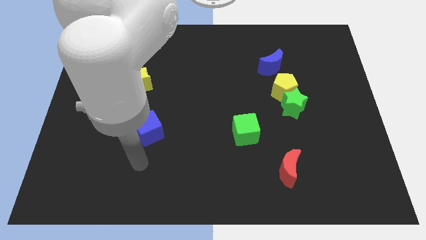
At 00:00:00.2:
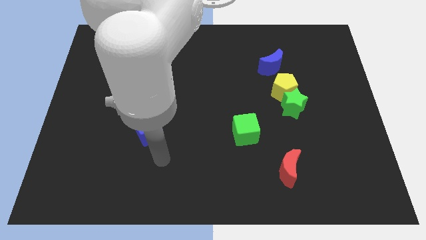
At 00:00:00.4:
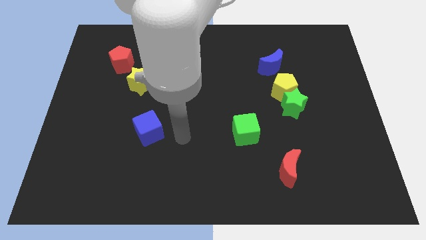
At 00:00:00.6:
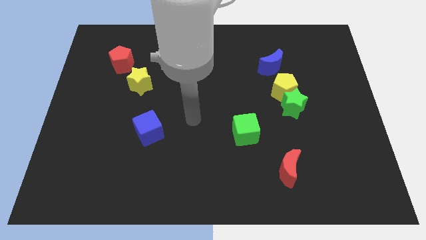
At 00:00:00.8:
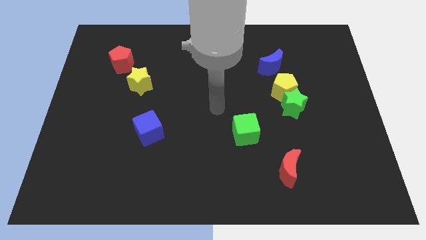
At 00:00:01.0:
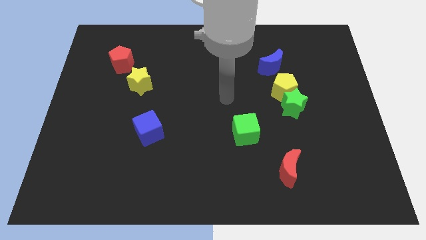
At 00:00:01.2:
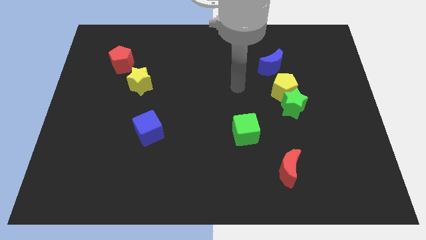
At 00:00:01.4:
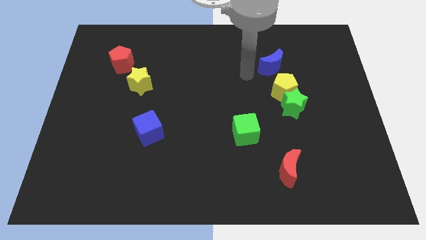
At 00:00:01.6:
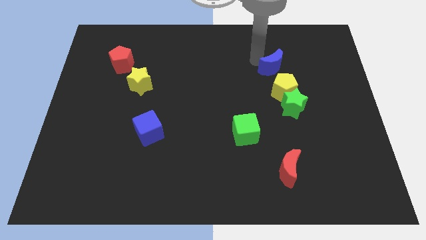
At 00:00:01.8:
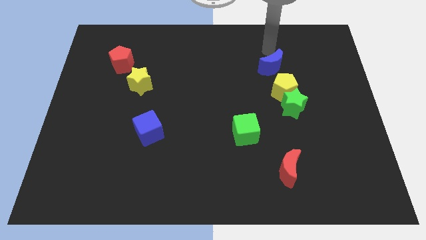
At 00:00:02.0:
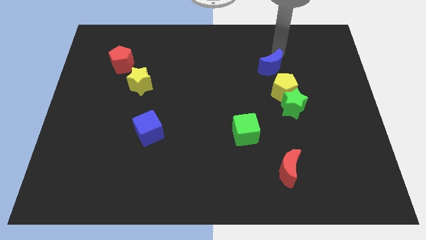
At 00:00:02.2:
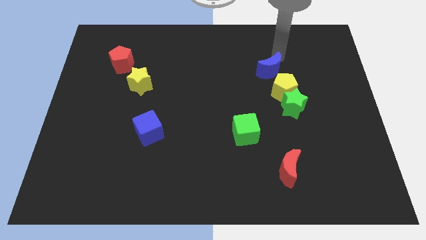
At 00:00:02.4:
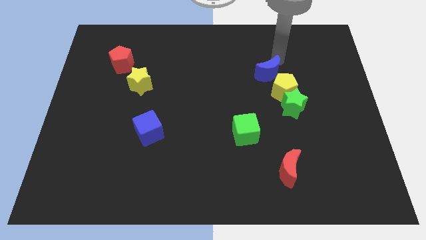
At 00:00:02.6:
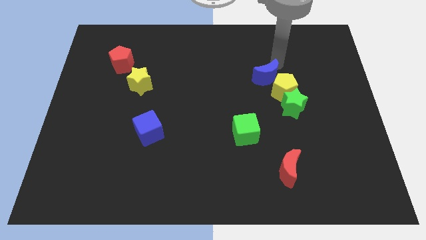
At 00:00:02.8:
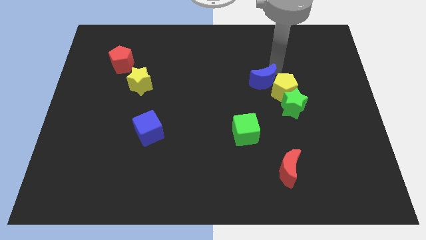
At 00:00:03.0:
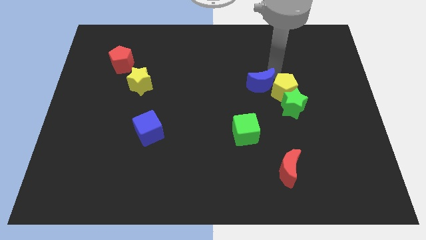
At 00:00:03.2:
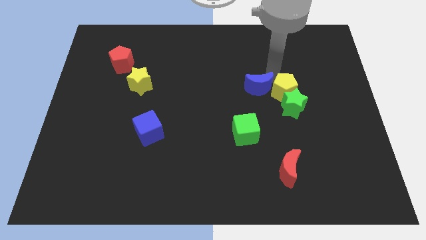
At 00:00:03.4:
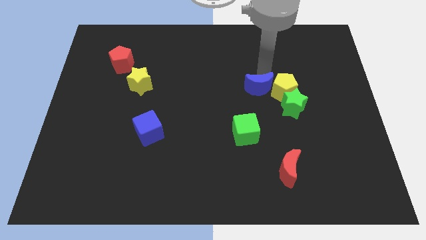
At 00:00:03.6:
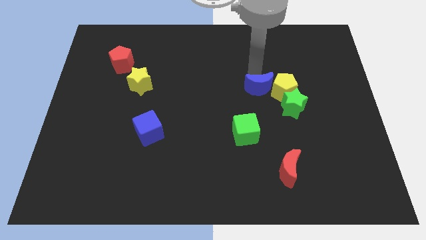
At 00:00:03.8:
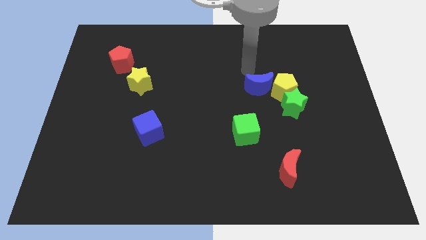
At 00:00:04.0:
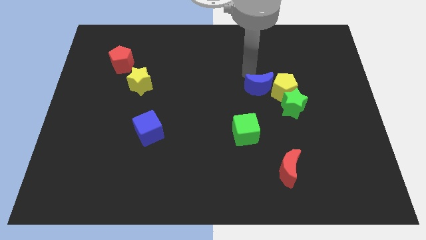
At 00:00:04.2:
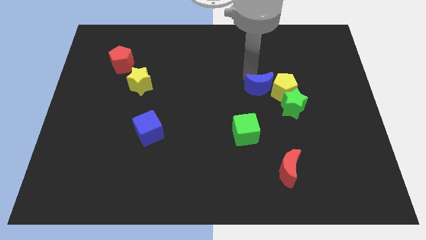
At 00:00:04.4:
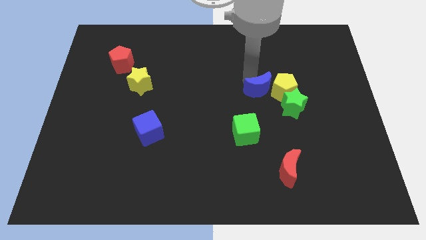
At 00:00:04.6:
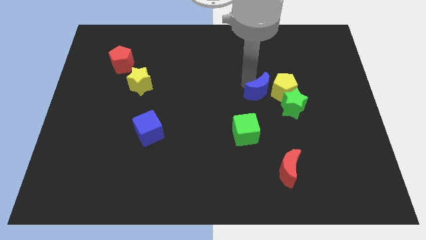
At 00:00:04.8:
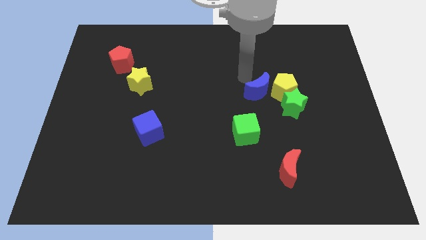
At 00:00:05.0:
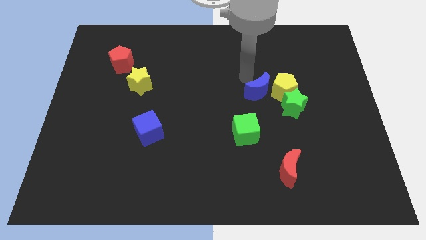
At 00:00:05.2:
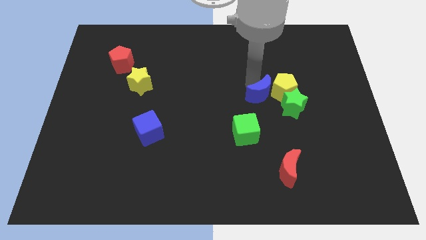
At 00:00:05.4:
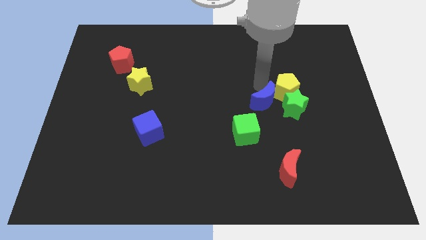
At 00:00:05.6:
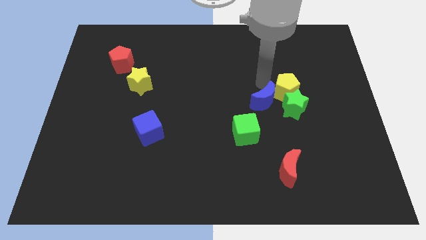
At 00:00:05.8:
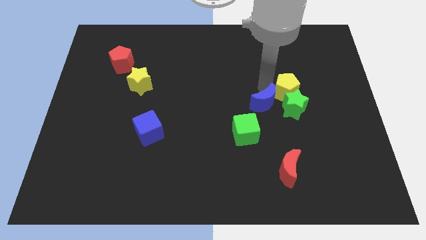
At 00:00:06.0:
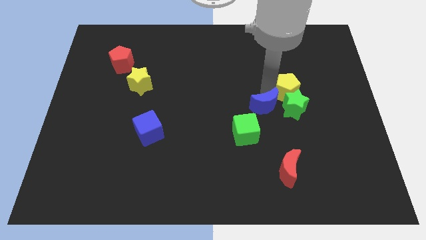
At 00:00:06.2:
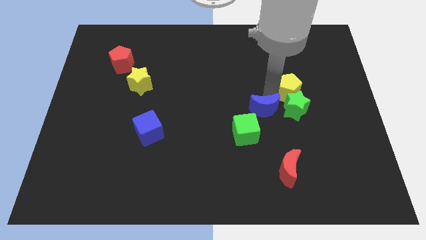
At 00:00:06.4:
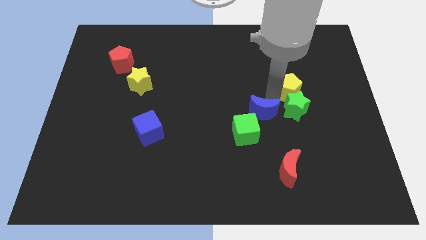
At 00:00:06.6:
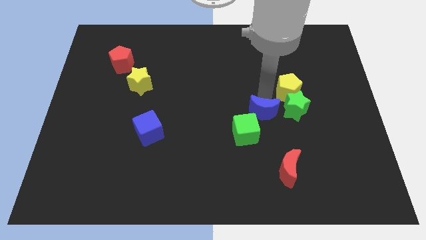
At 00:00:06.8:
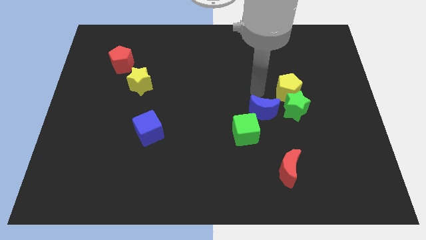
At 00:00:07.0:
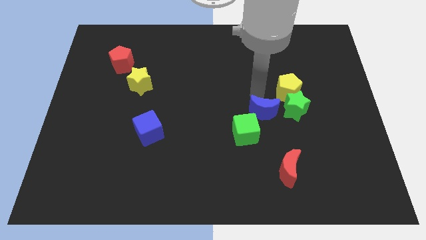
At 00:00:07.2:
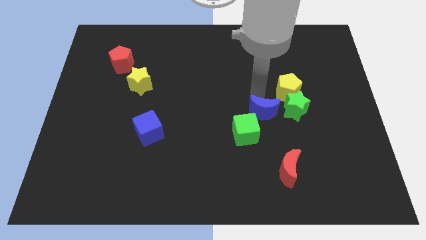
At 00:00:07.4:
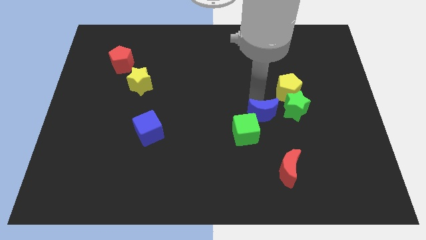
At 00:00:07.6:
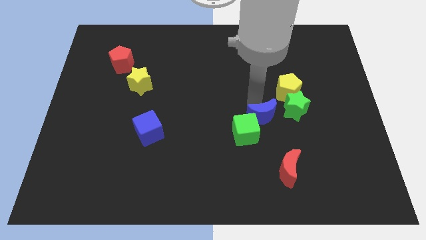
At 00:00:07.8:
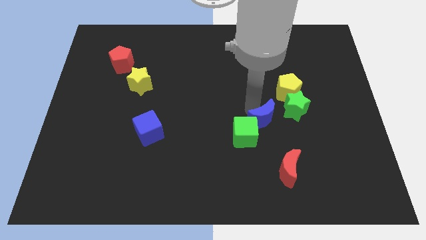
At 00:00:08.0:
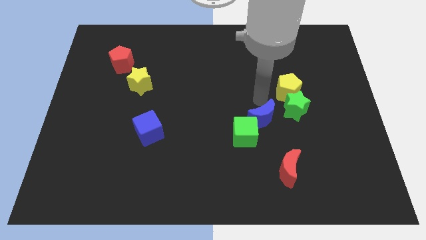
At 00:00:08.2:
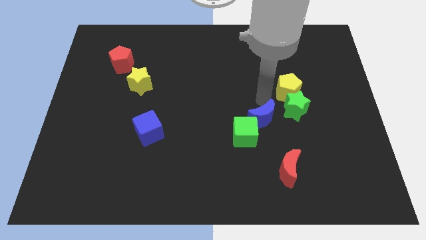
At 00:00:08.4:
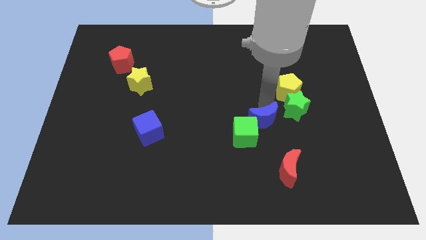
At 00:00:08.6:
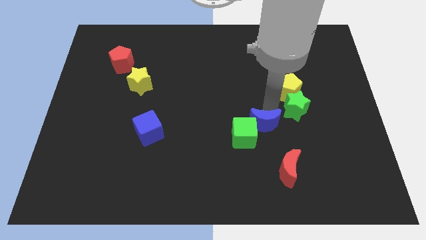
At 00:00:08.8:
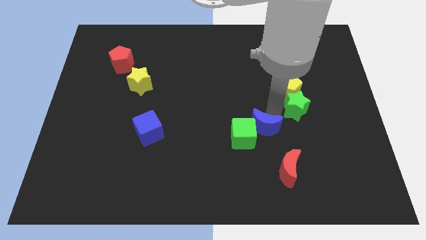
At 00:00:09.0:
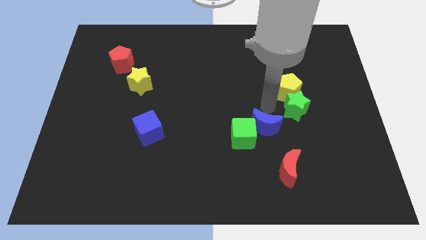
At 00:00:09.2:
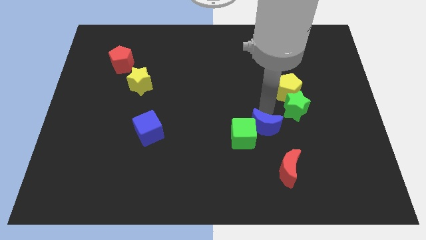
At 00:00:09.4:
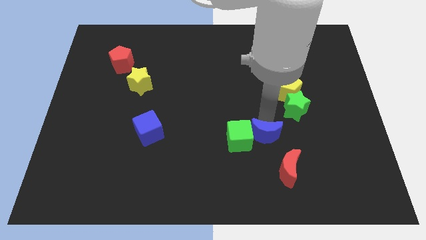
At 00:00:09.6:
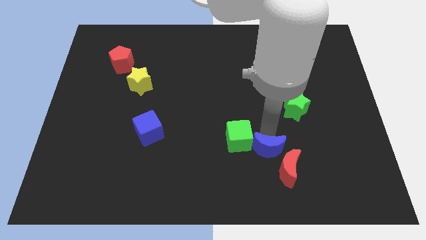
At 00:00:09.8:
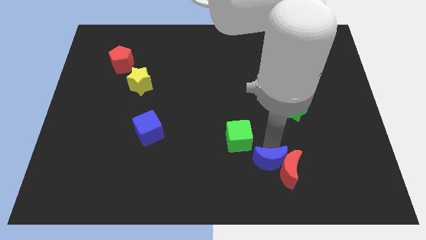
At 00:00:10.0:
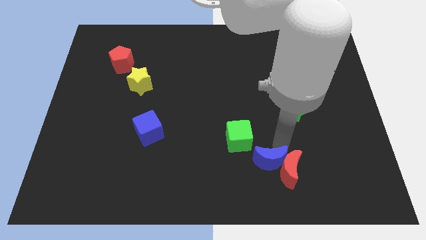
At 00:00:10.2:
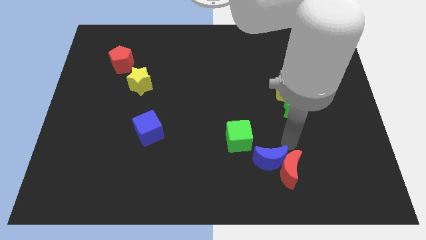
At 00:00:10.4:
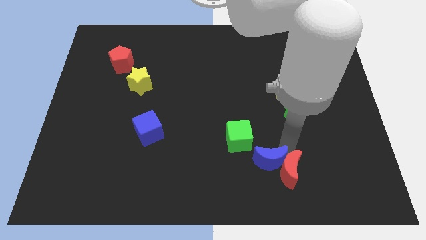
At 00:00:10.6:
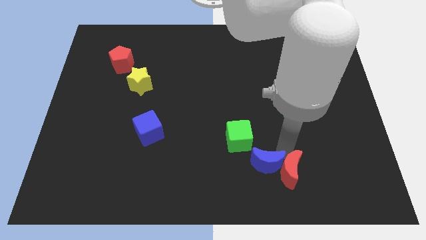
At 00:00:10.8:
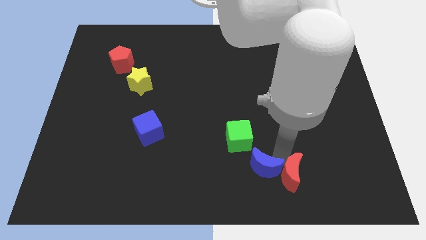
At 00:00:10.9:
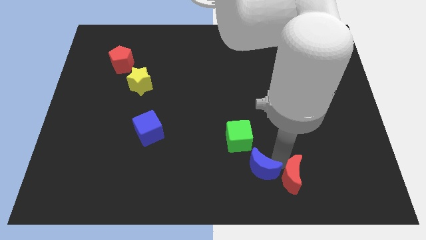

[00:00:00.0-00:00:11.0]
slide the blue moon to the bottom side
